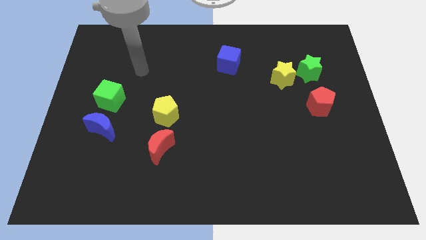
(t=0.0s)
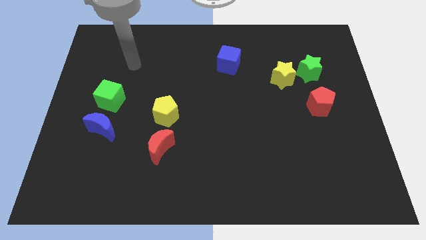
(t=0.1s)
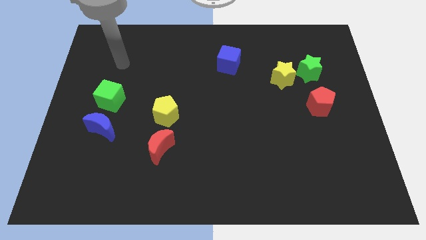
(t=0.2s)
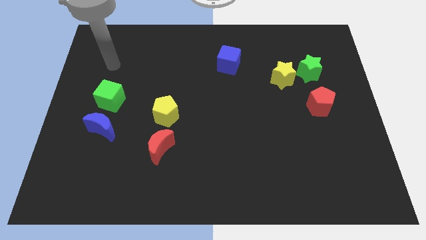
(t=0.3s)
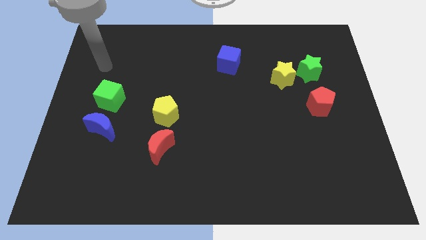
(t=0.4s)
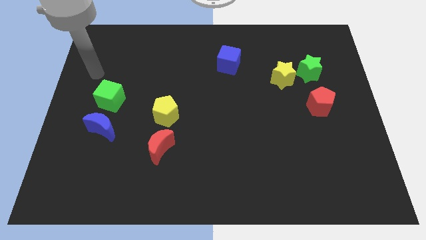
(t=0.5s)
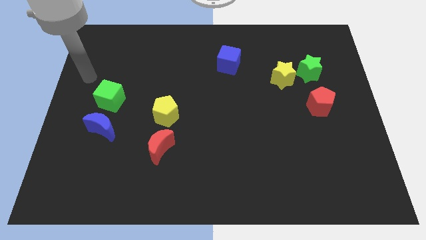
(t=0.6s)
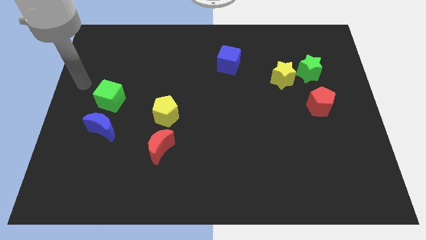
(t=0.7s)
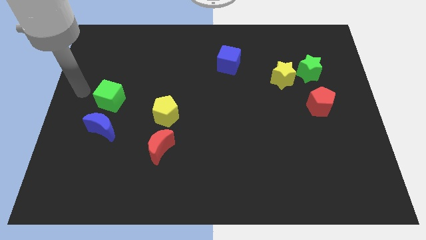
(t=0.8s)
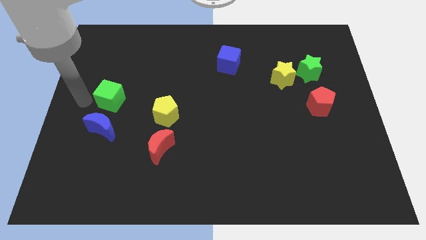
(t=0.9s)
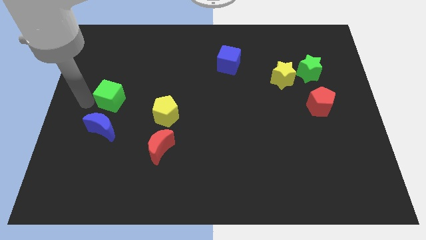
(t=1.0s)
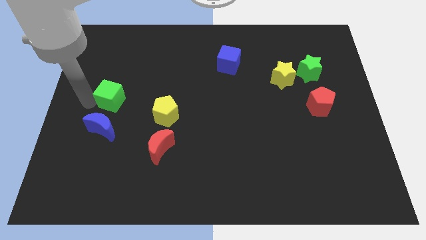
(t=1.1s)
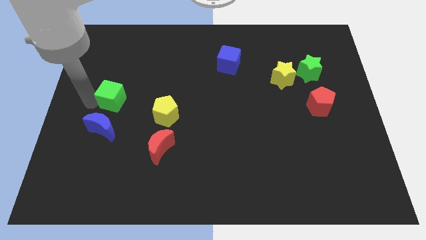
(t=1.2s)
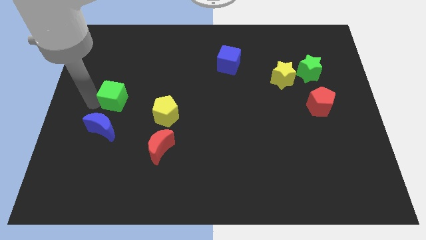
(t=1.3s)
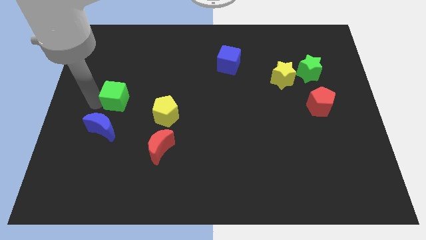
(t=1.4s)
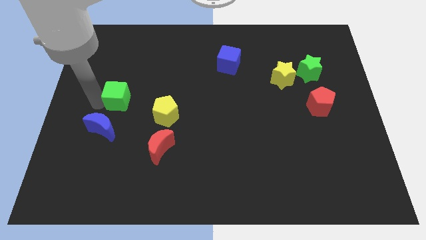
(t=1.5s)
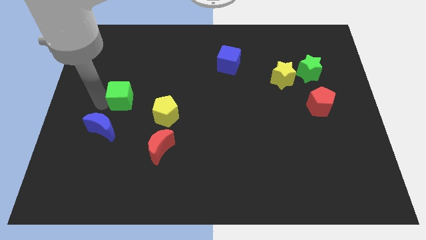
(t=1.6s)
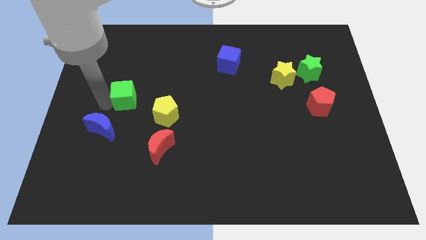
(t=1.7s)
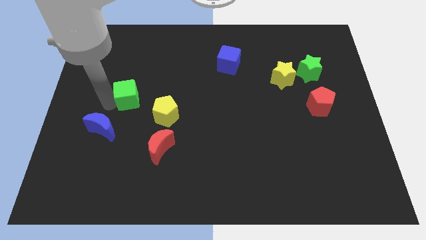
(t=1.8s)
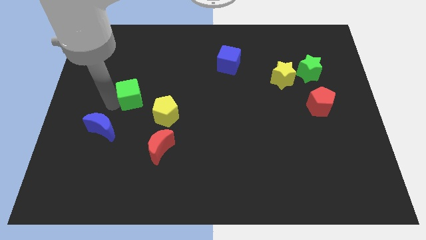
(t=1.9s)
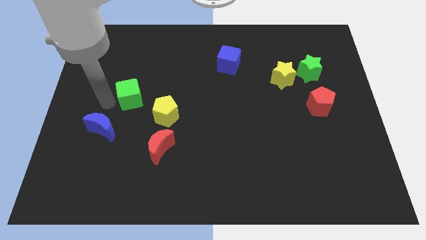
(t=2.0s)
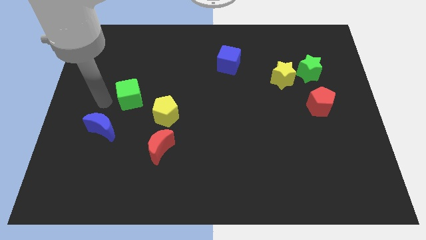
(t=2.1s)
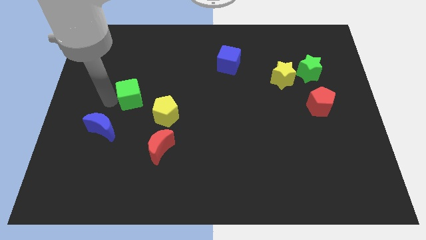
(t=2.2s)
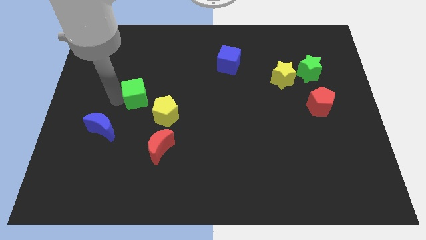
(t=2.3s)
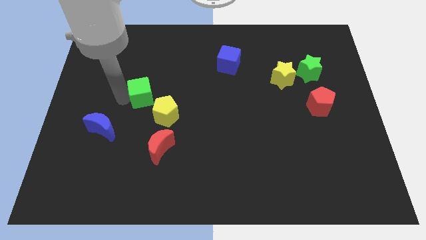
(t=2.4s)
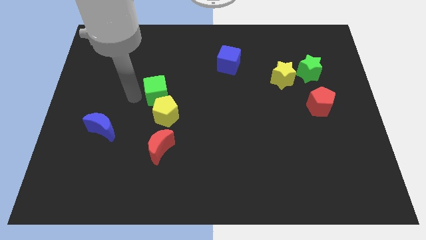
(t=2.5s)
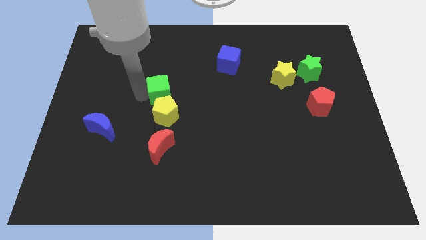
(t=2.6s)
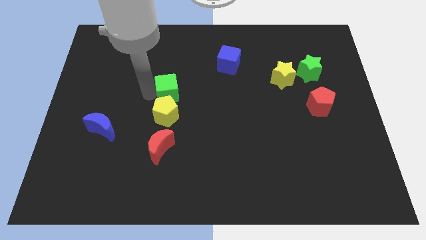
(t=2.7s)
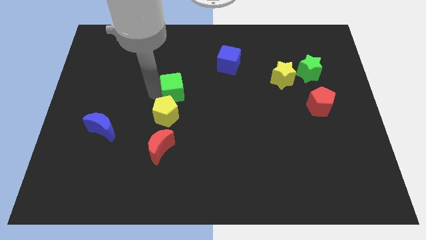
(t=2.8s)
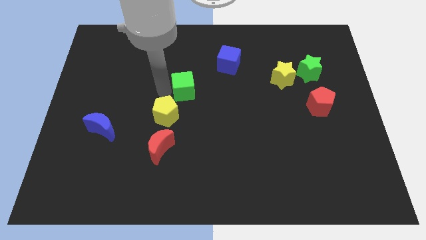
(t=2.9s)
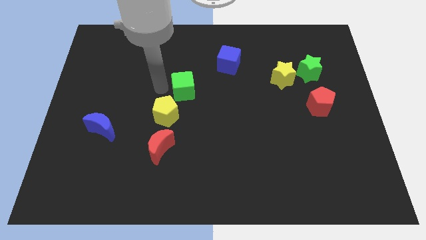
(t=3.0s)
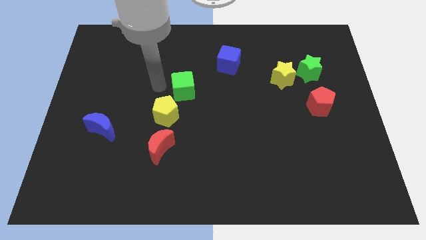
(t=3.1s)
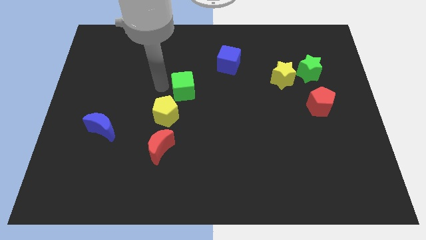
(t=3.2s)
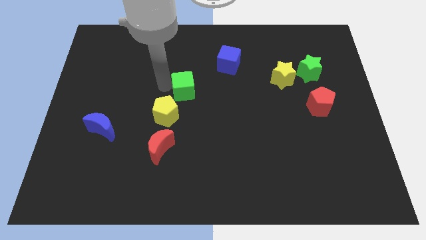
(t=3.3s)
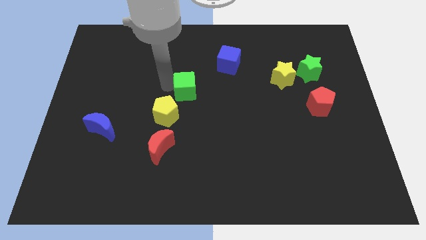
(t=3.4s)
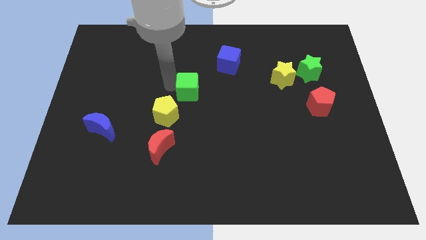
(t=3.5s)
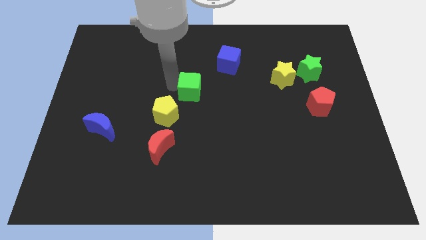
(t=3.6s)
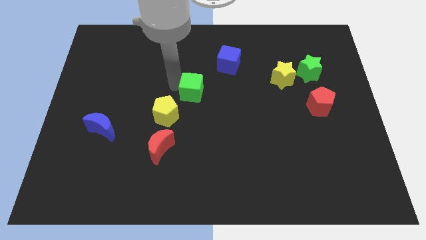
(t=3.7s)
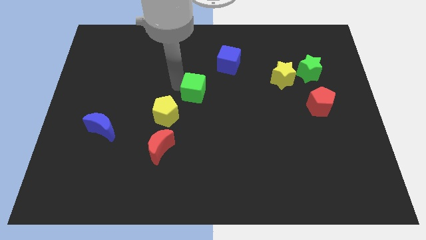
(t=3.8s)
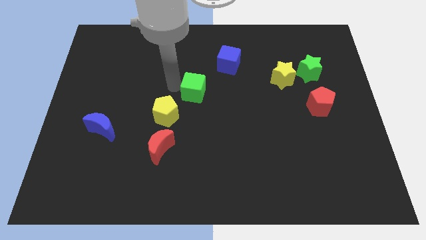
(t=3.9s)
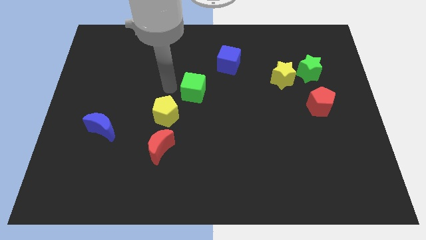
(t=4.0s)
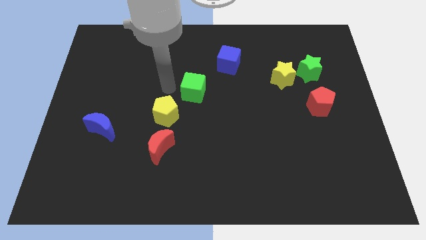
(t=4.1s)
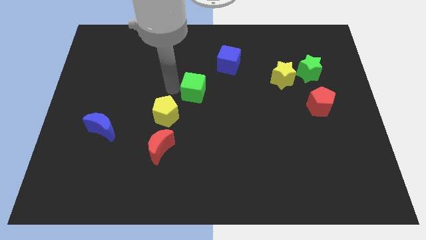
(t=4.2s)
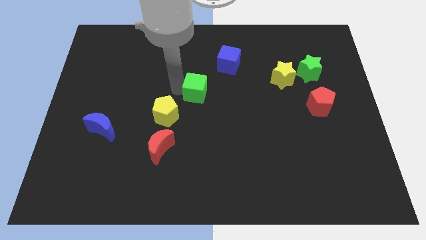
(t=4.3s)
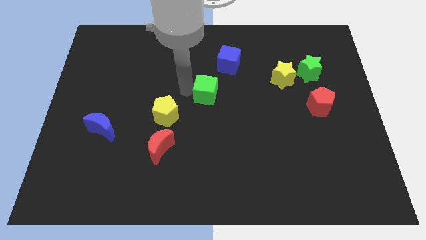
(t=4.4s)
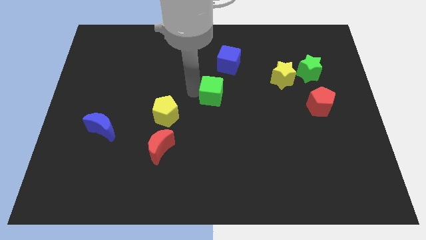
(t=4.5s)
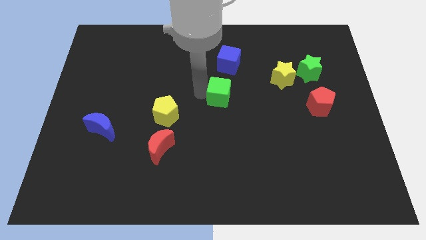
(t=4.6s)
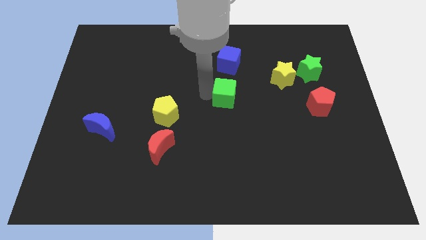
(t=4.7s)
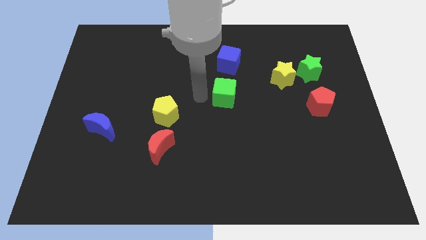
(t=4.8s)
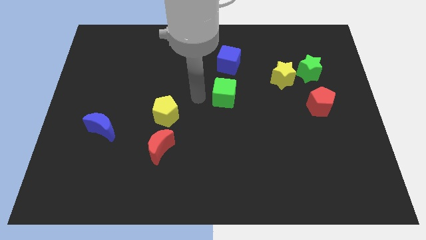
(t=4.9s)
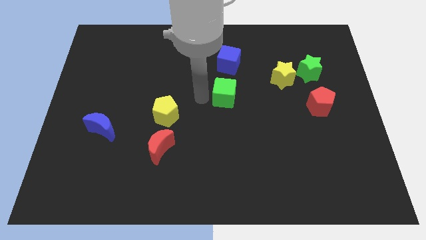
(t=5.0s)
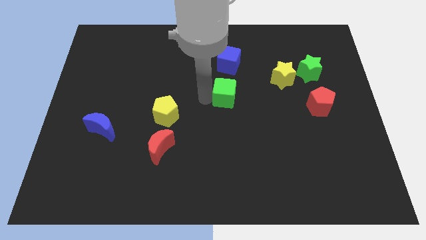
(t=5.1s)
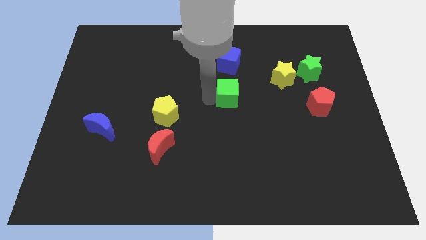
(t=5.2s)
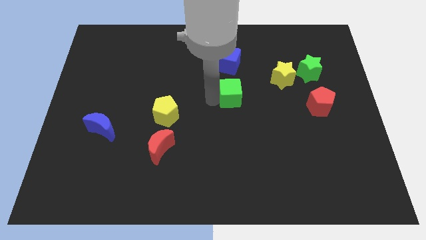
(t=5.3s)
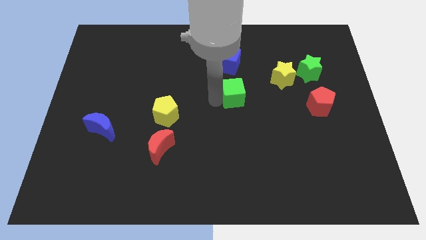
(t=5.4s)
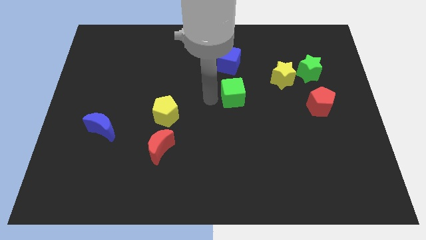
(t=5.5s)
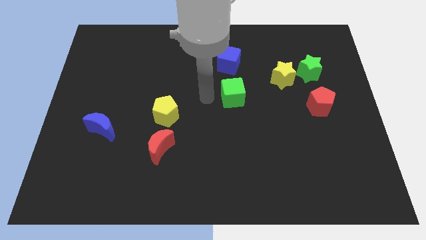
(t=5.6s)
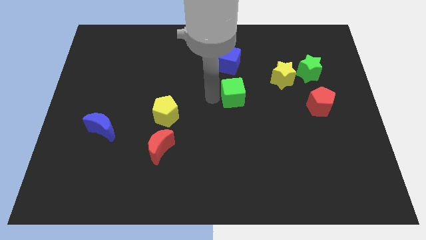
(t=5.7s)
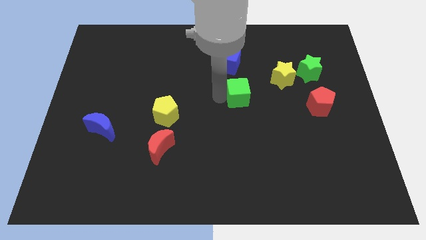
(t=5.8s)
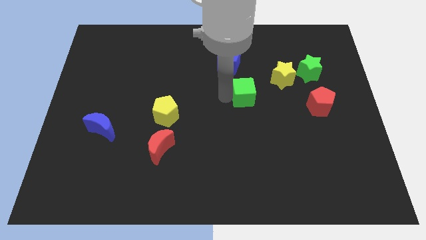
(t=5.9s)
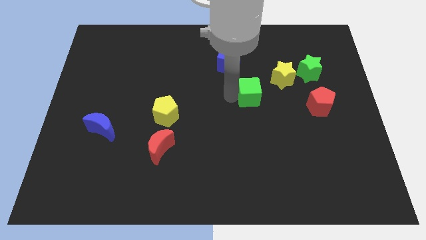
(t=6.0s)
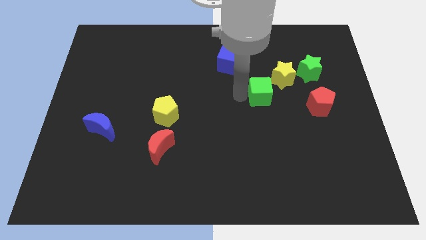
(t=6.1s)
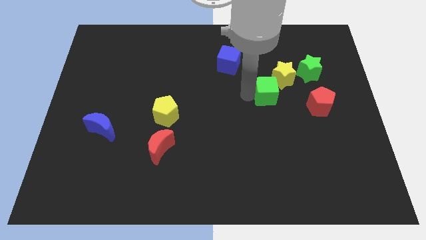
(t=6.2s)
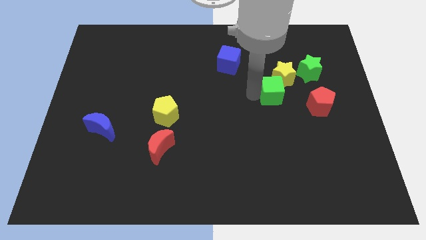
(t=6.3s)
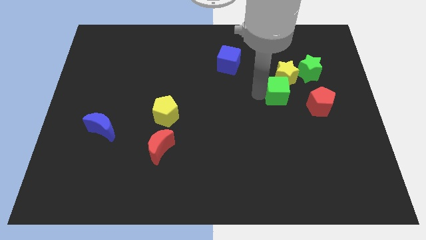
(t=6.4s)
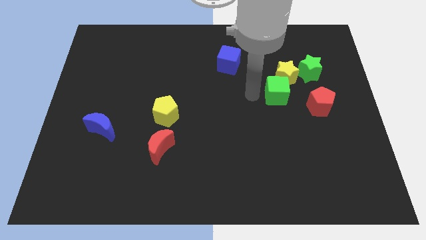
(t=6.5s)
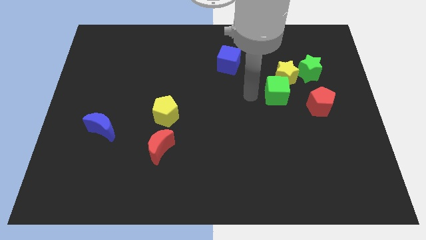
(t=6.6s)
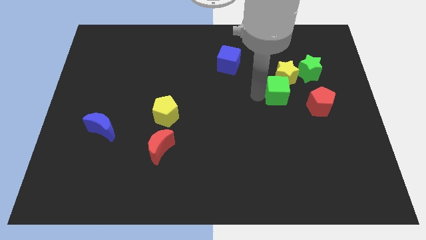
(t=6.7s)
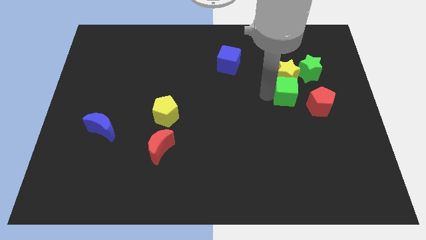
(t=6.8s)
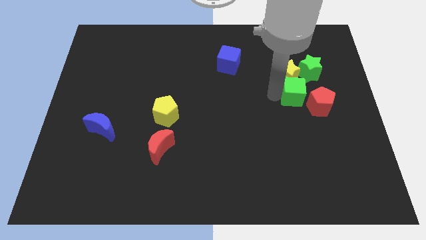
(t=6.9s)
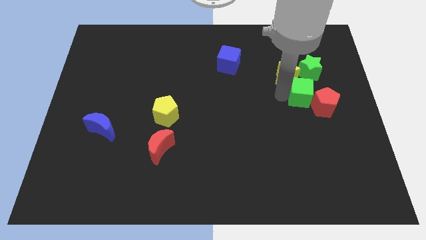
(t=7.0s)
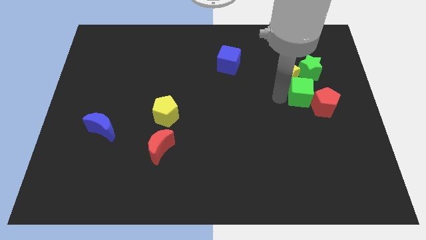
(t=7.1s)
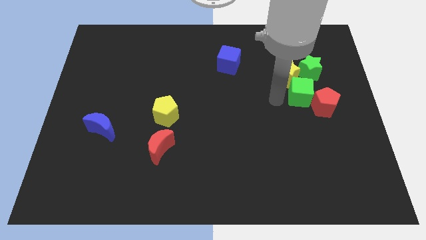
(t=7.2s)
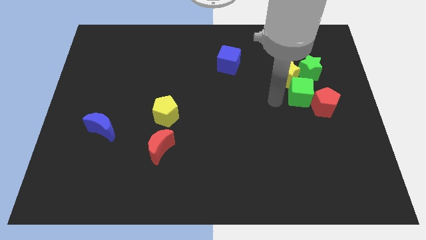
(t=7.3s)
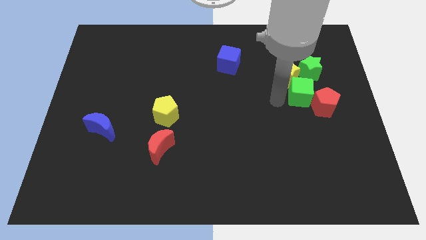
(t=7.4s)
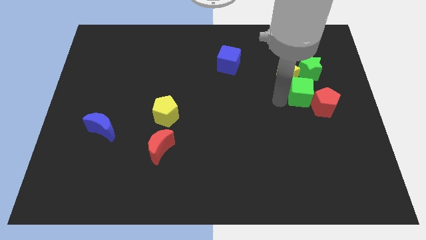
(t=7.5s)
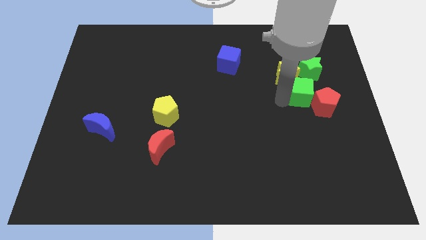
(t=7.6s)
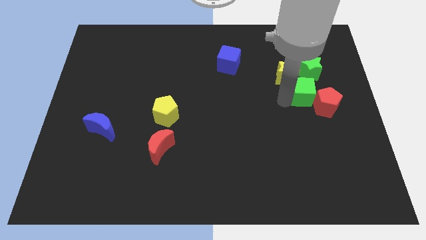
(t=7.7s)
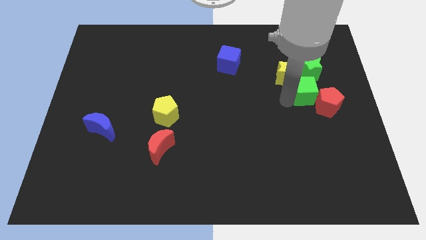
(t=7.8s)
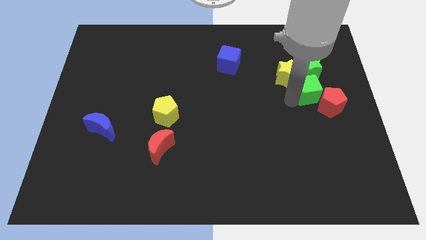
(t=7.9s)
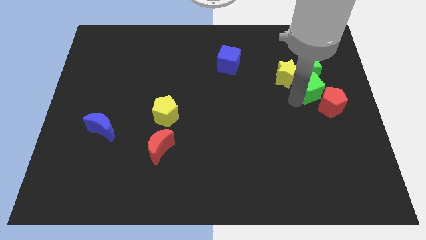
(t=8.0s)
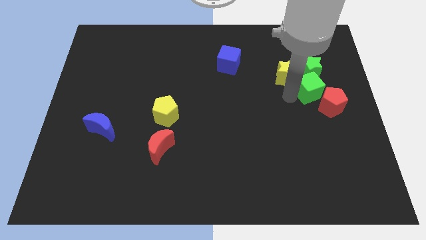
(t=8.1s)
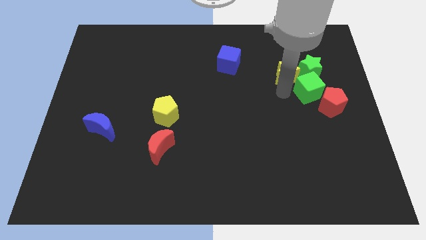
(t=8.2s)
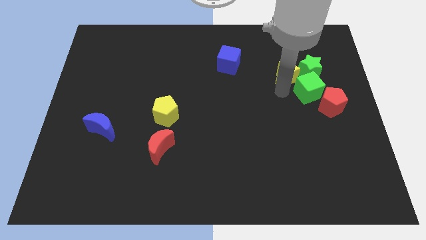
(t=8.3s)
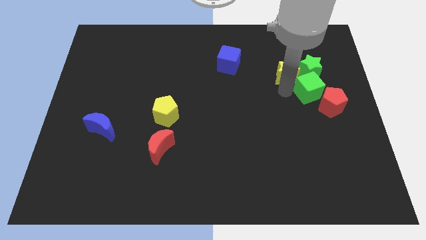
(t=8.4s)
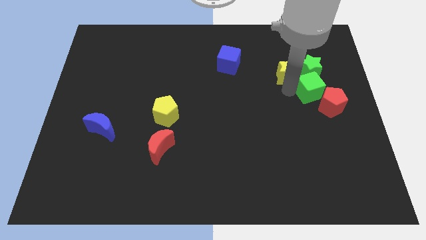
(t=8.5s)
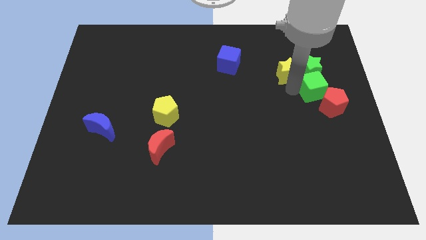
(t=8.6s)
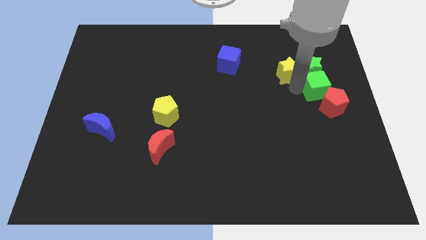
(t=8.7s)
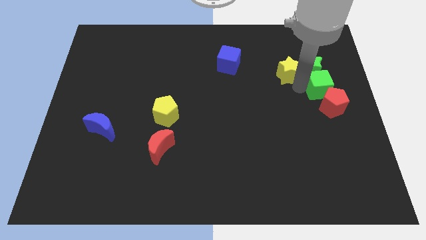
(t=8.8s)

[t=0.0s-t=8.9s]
slide the green cube to the center right
